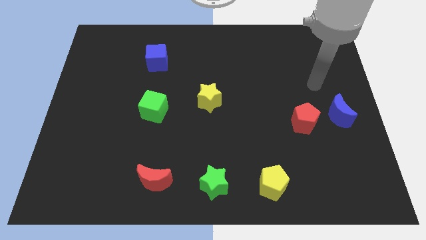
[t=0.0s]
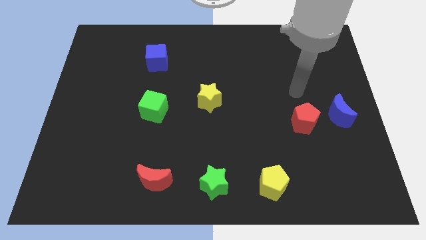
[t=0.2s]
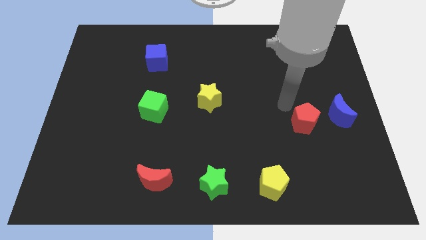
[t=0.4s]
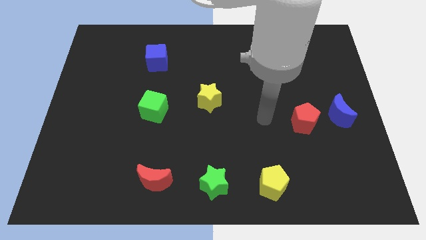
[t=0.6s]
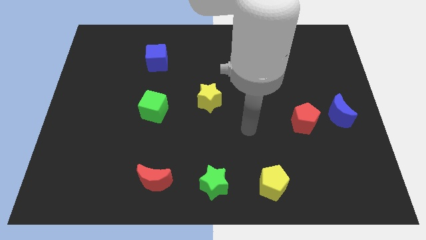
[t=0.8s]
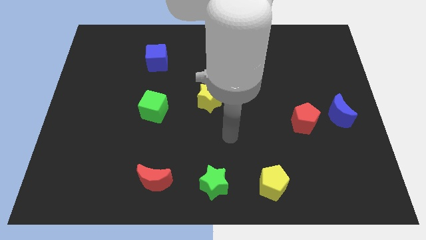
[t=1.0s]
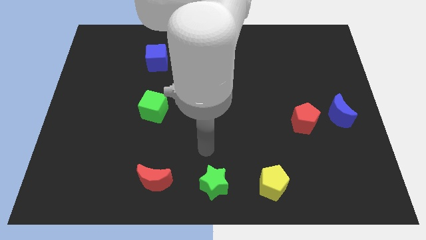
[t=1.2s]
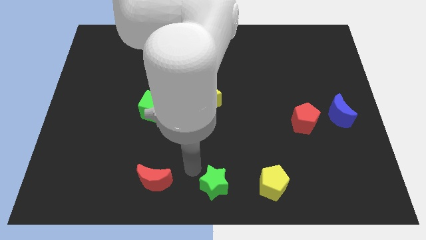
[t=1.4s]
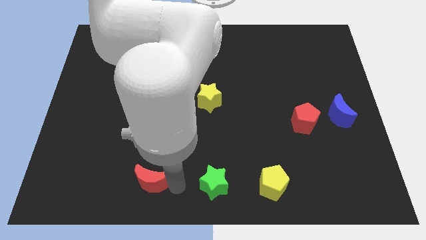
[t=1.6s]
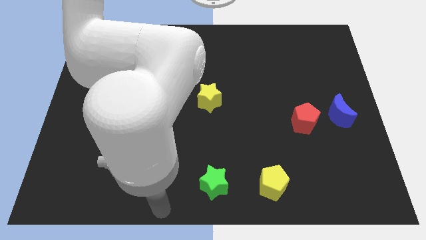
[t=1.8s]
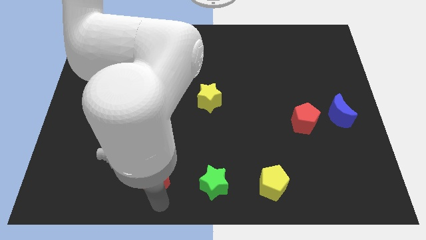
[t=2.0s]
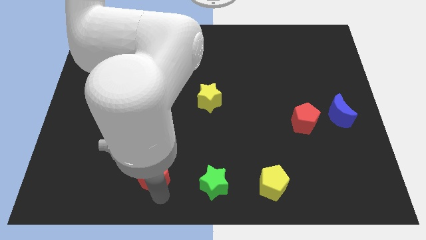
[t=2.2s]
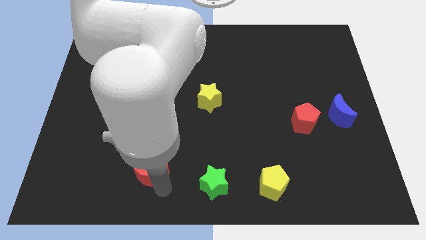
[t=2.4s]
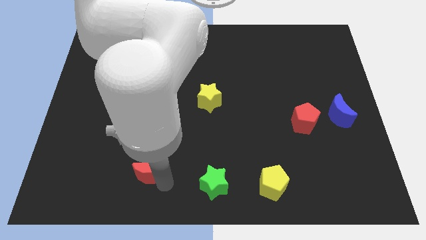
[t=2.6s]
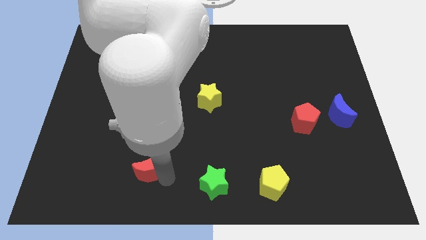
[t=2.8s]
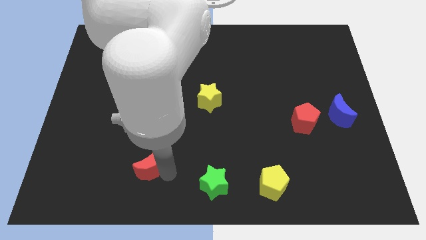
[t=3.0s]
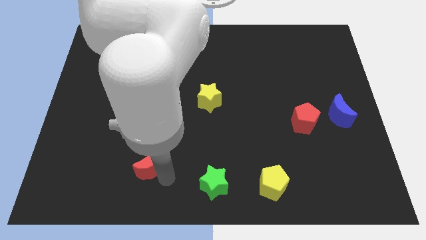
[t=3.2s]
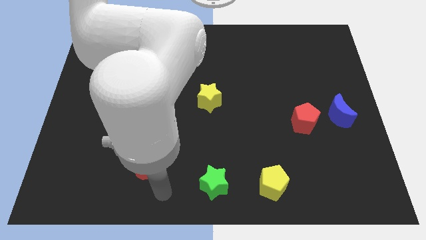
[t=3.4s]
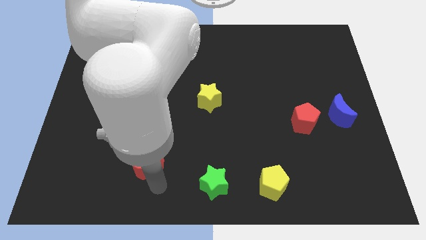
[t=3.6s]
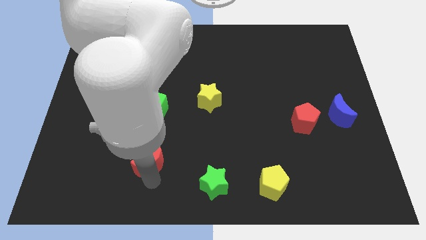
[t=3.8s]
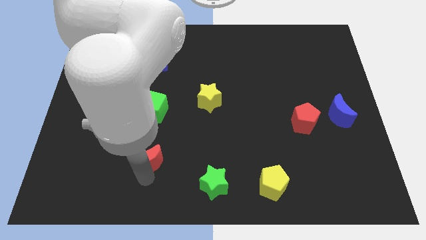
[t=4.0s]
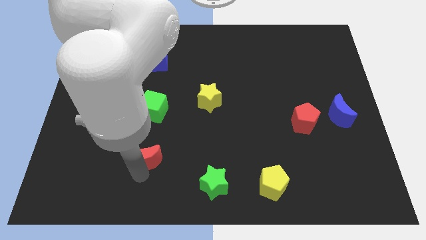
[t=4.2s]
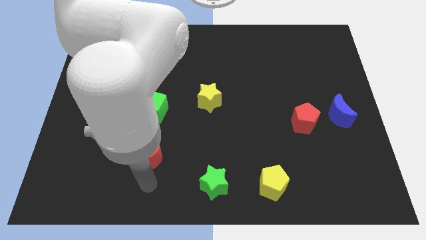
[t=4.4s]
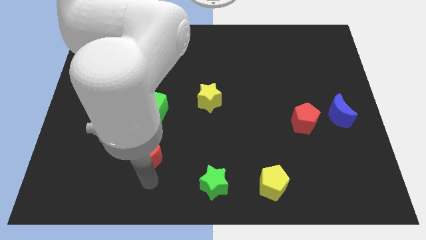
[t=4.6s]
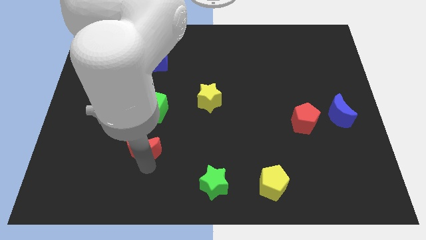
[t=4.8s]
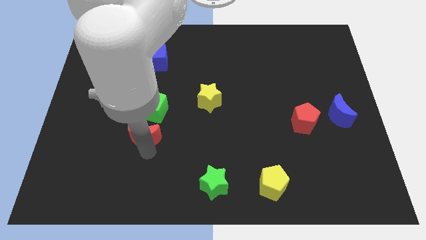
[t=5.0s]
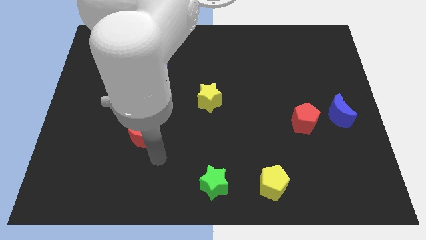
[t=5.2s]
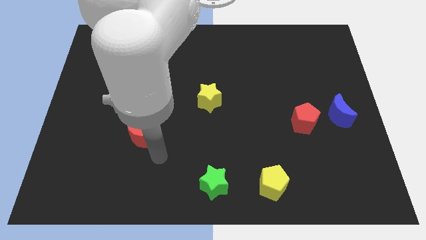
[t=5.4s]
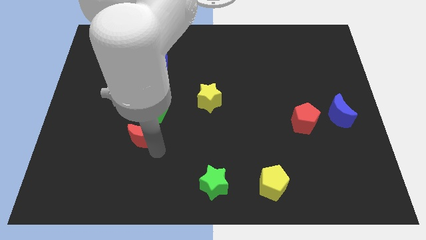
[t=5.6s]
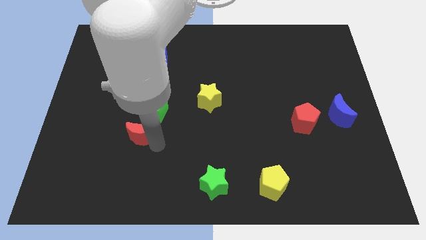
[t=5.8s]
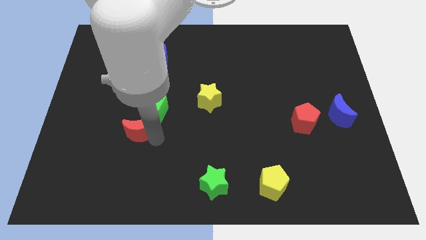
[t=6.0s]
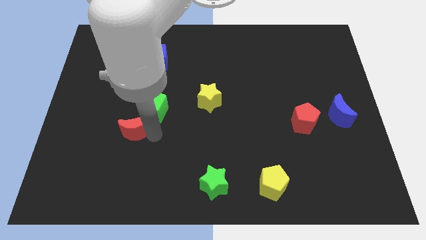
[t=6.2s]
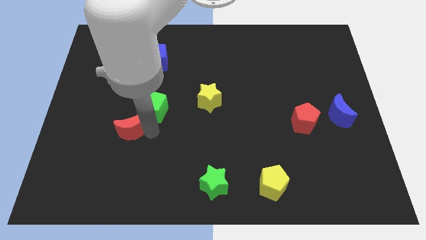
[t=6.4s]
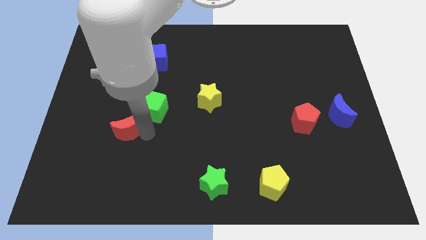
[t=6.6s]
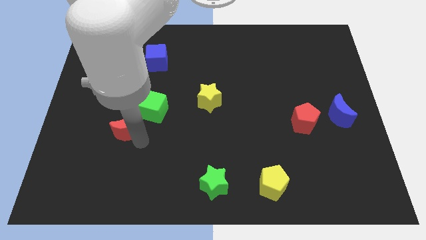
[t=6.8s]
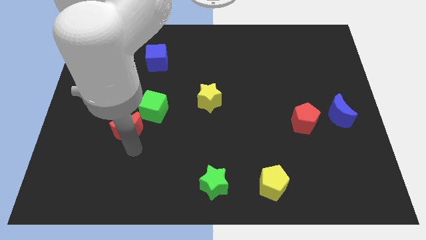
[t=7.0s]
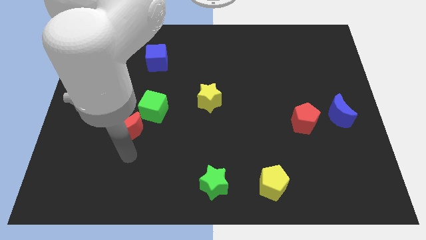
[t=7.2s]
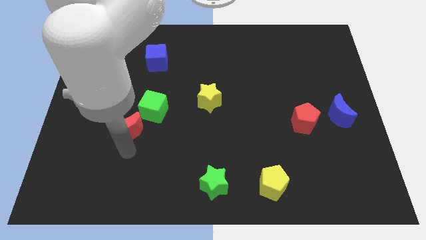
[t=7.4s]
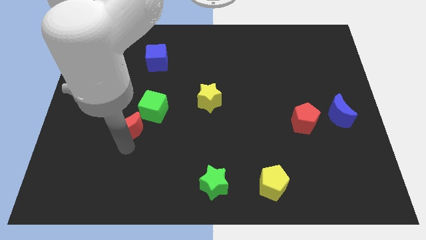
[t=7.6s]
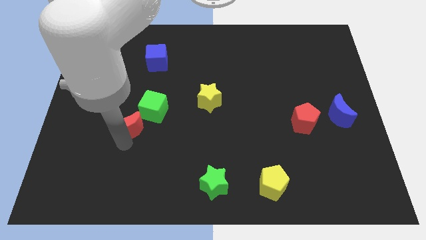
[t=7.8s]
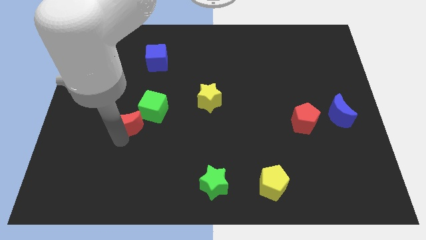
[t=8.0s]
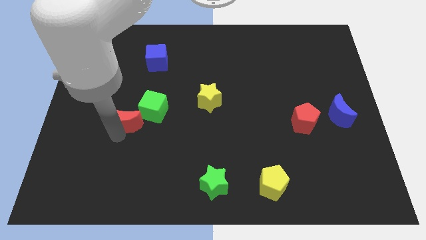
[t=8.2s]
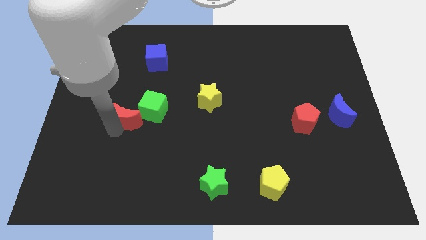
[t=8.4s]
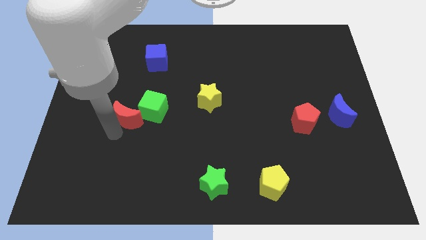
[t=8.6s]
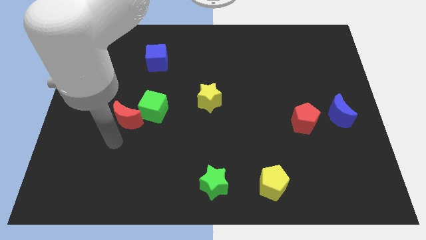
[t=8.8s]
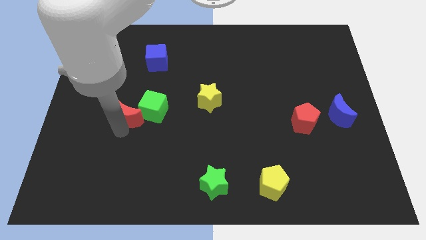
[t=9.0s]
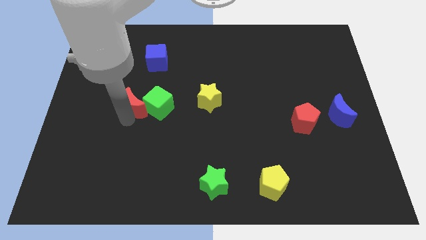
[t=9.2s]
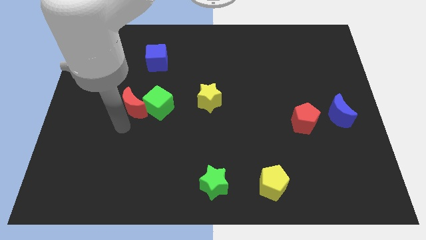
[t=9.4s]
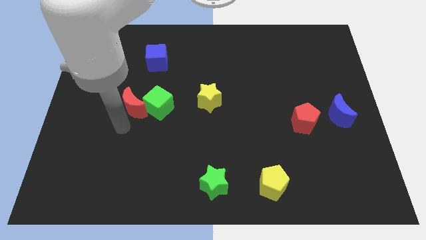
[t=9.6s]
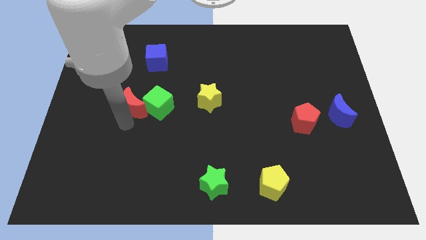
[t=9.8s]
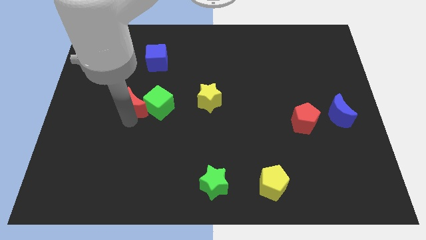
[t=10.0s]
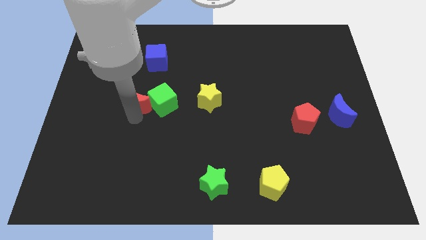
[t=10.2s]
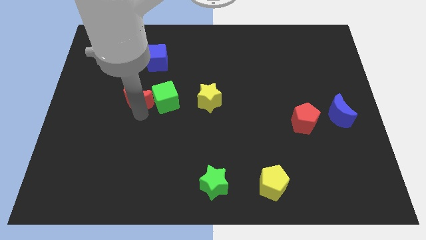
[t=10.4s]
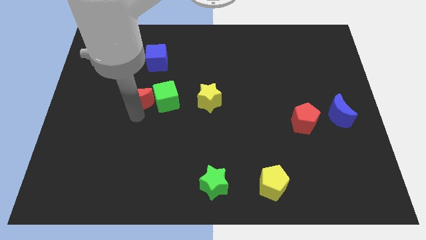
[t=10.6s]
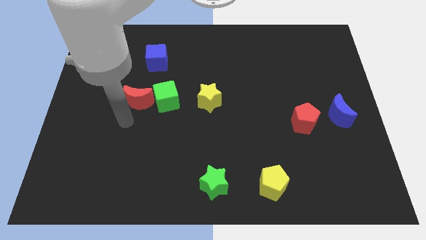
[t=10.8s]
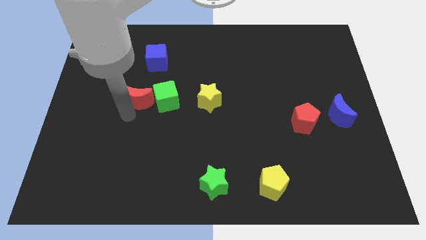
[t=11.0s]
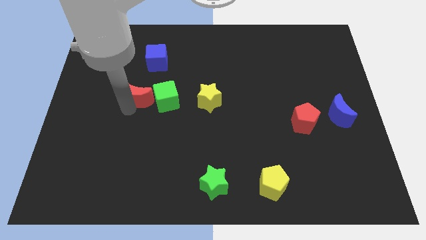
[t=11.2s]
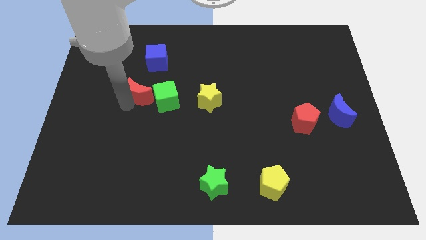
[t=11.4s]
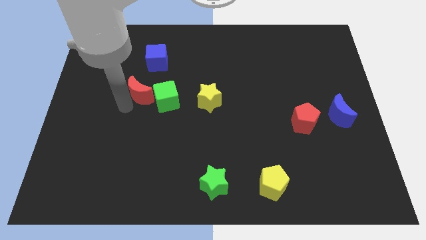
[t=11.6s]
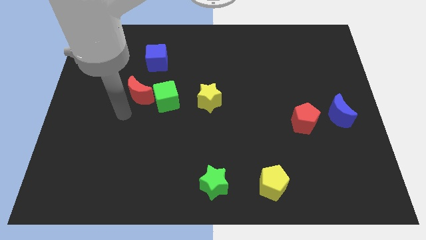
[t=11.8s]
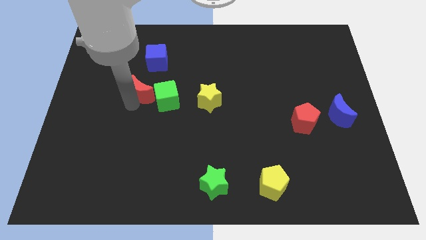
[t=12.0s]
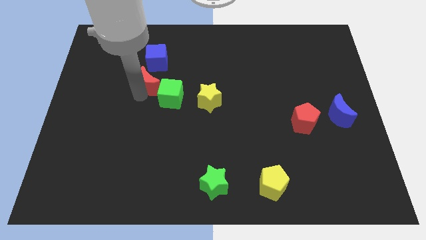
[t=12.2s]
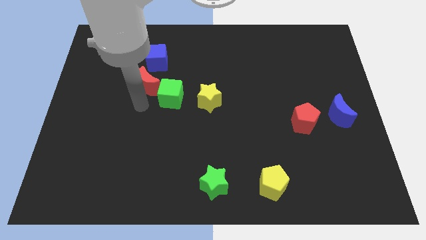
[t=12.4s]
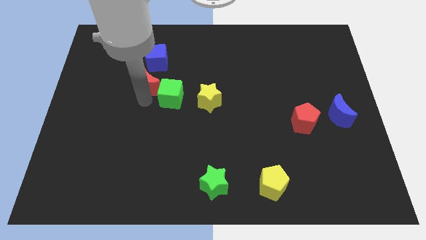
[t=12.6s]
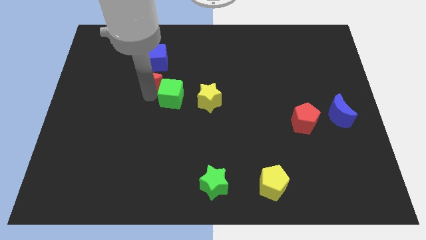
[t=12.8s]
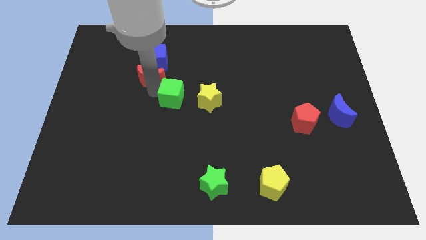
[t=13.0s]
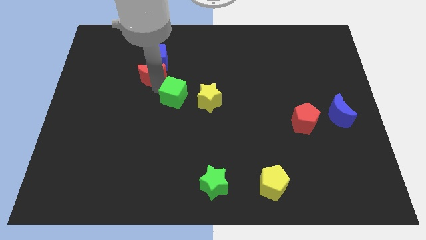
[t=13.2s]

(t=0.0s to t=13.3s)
push the red moon close to the blue cube
